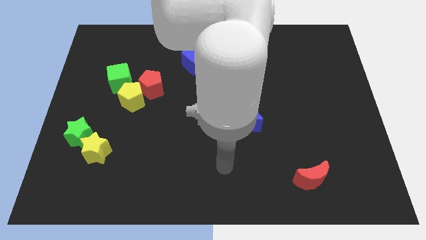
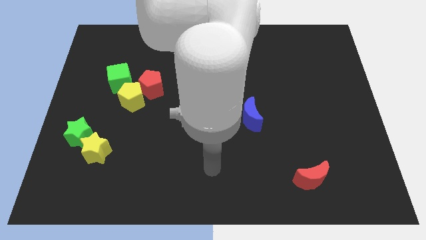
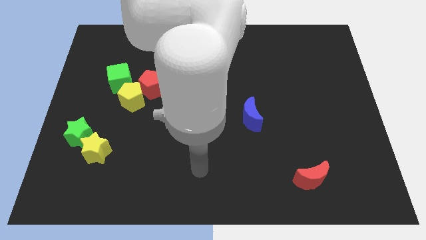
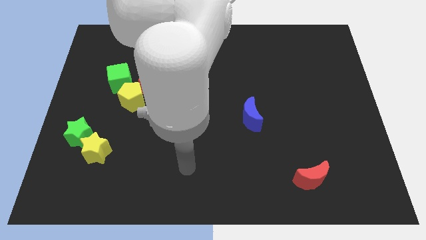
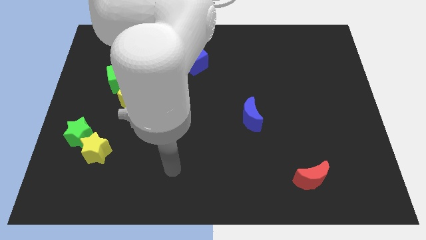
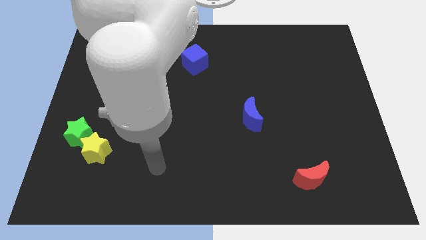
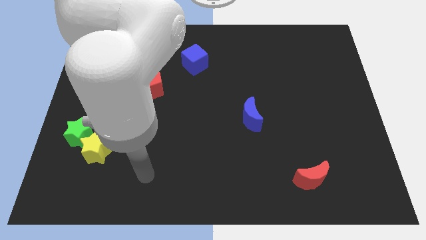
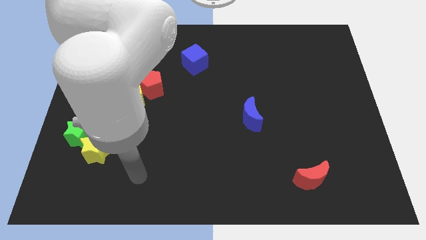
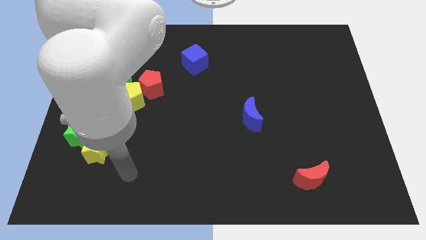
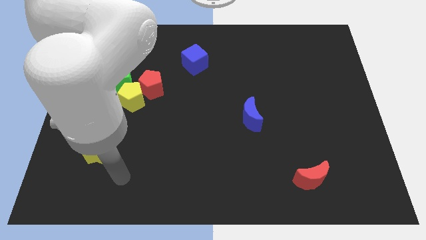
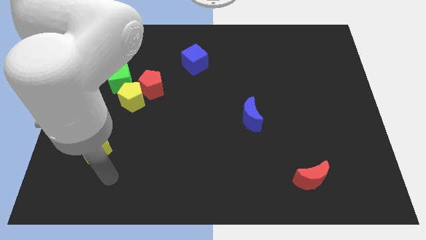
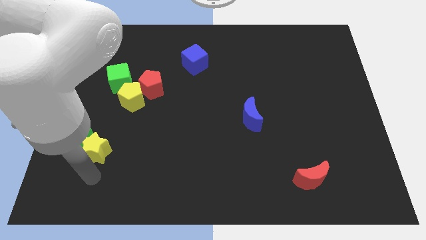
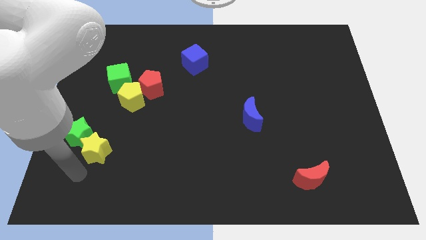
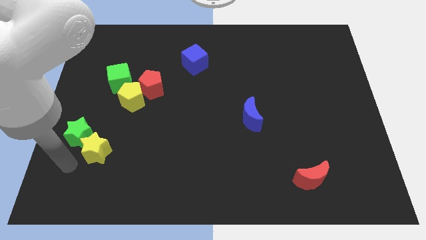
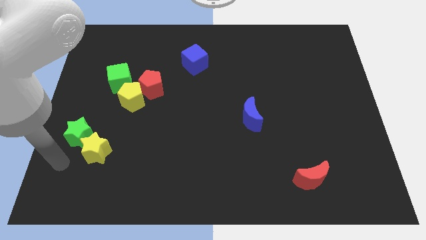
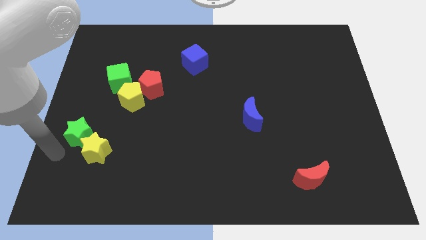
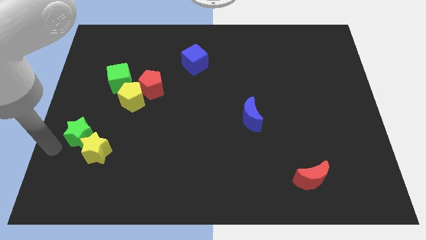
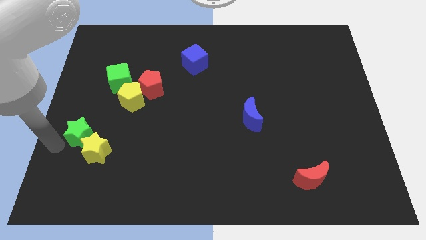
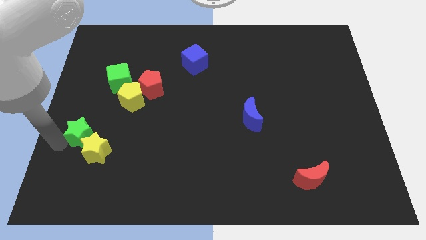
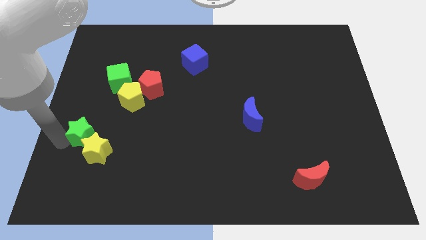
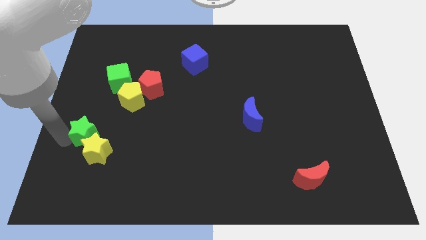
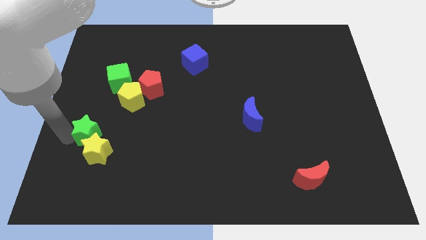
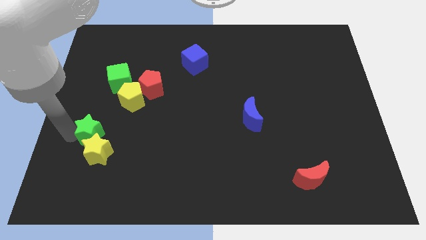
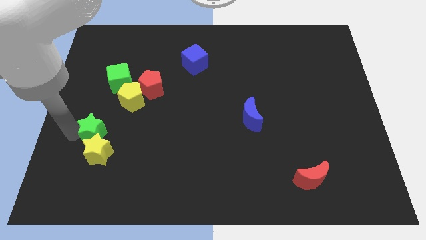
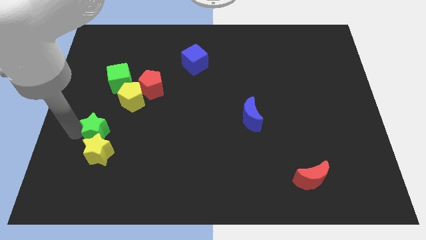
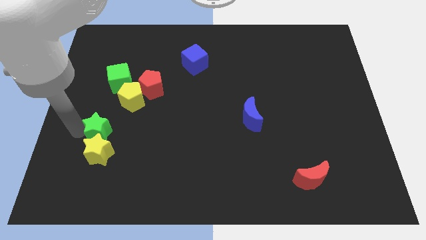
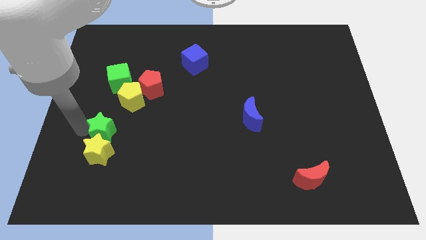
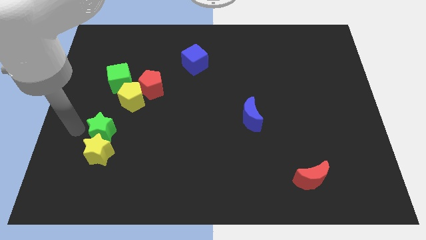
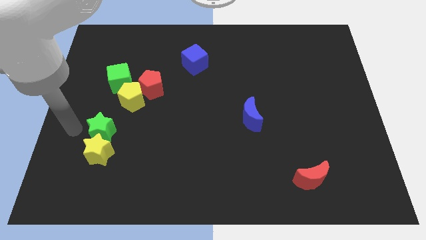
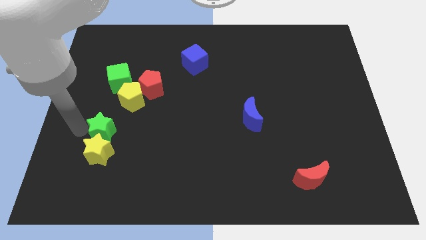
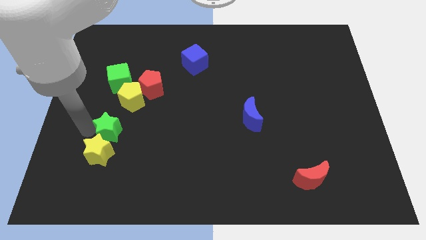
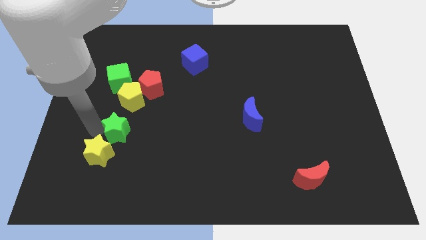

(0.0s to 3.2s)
move the green star a bit to the right

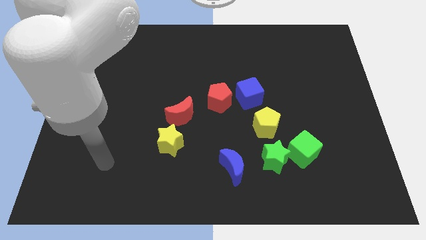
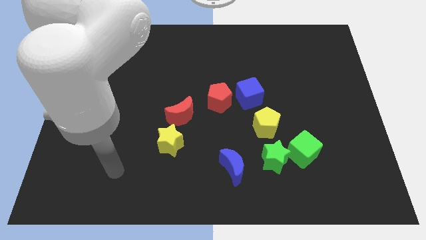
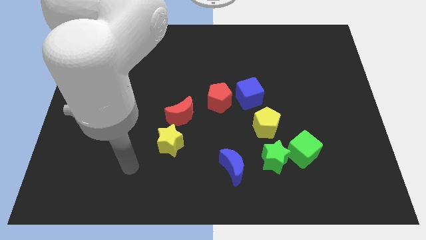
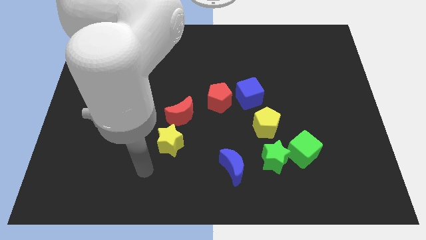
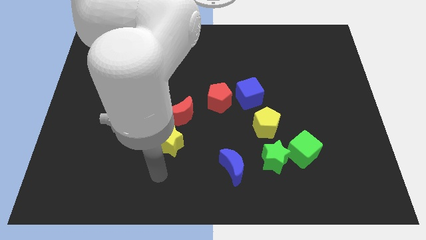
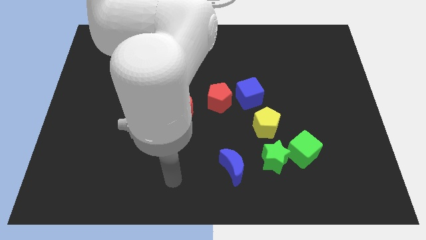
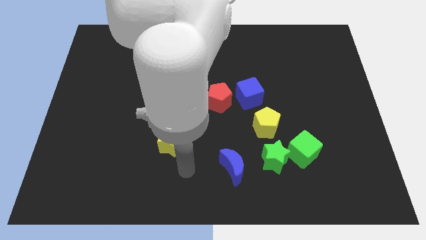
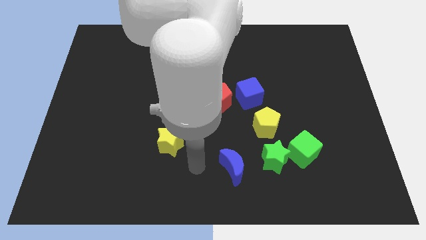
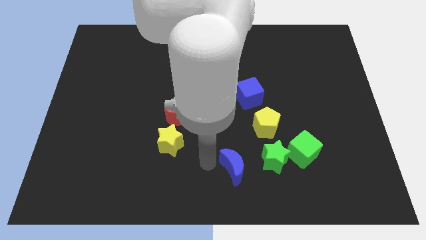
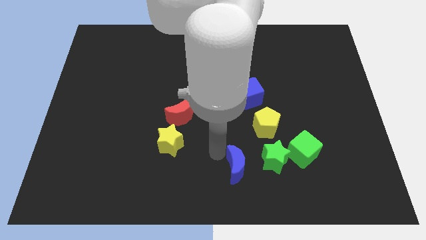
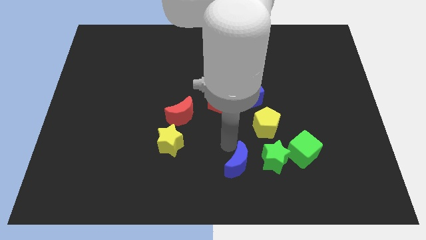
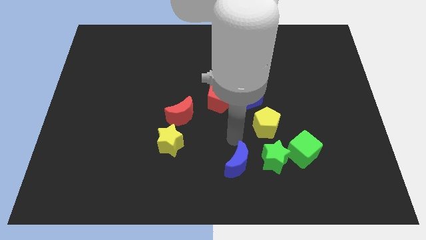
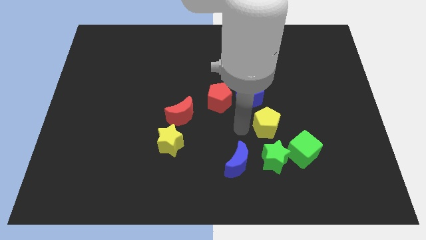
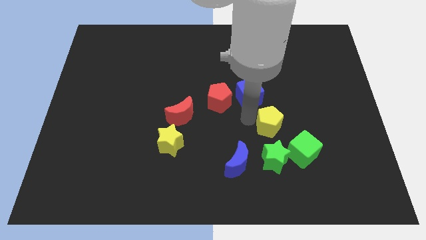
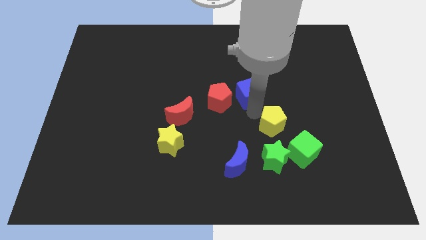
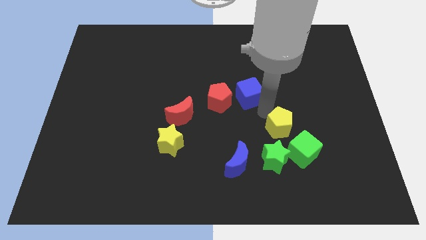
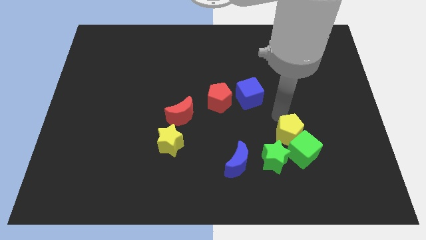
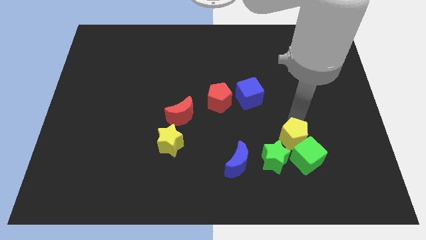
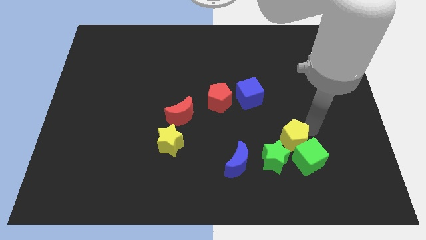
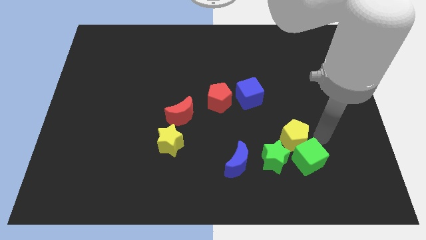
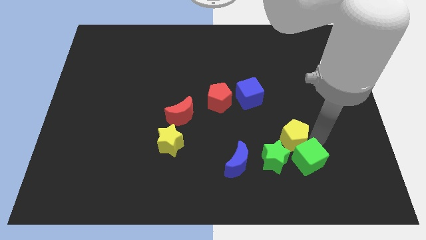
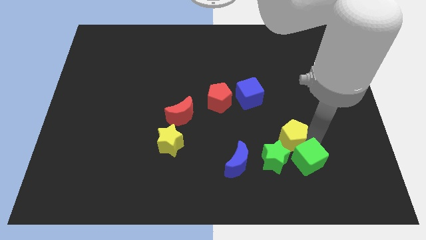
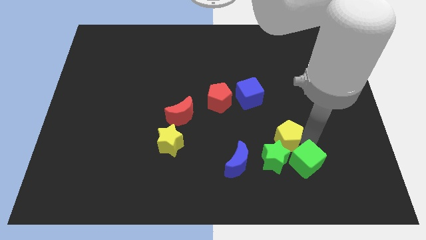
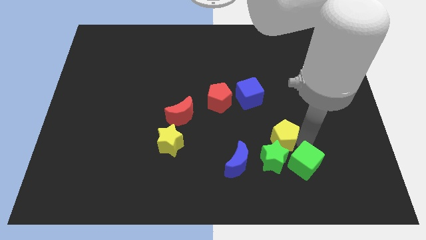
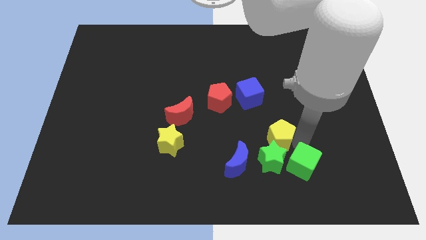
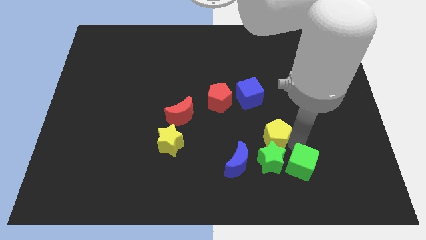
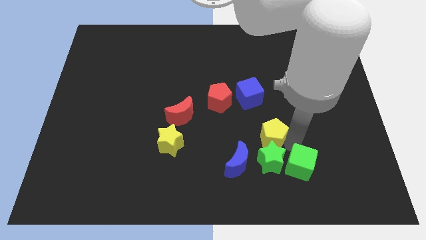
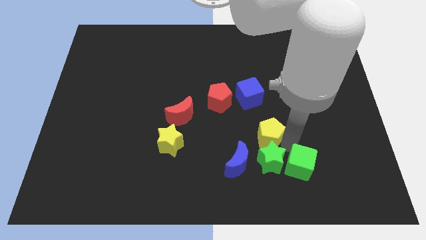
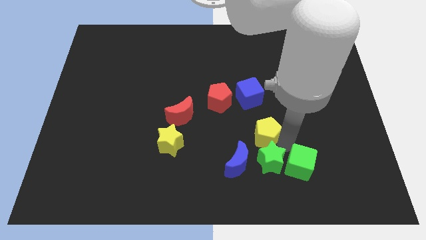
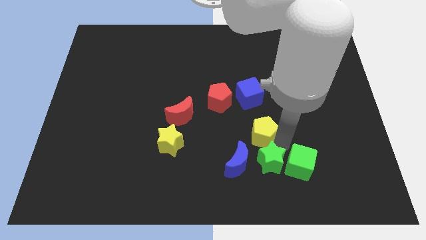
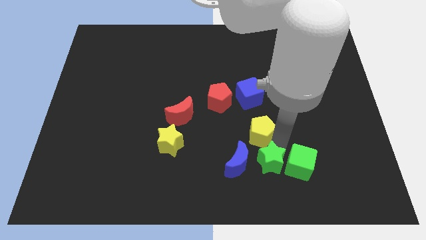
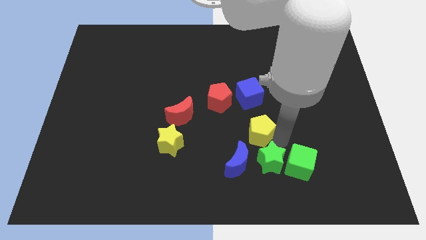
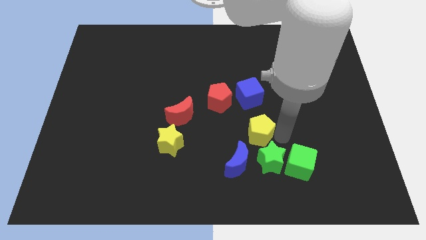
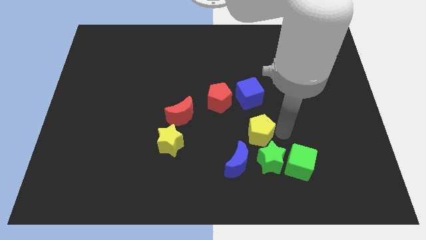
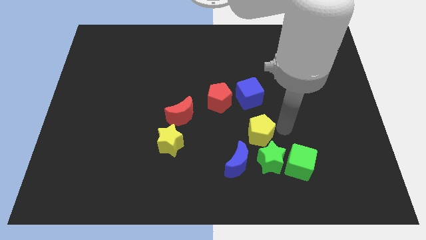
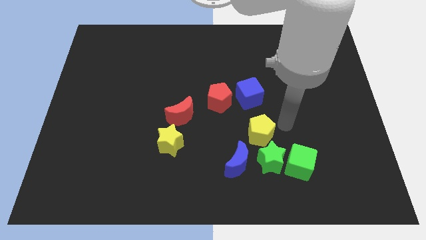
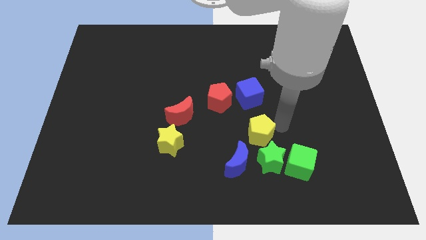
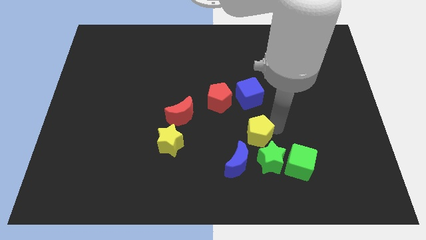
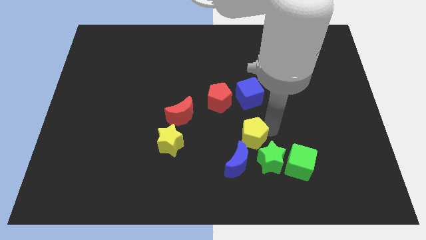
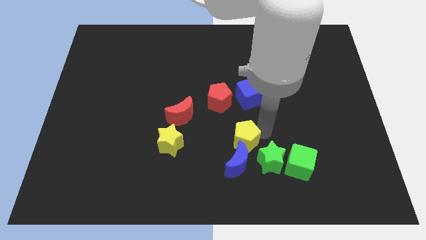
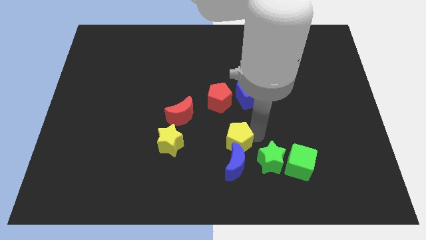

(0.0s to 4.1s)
move the yellow pentagon a bit downwards and then to the left

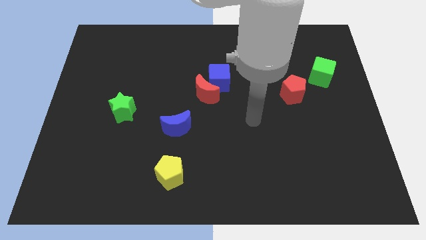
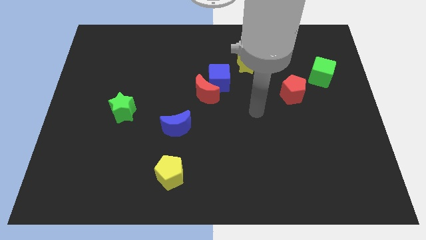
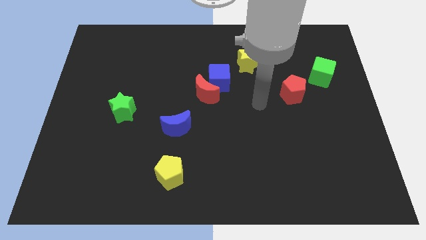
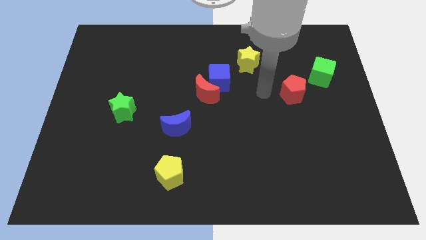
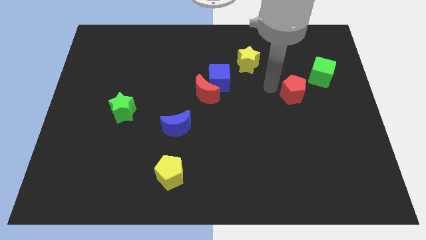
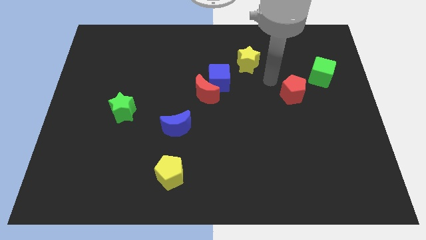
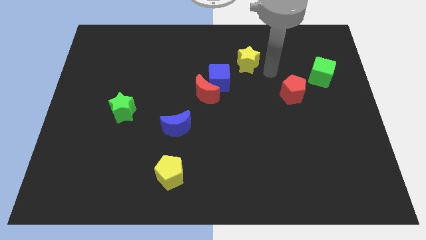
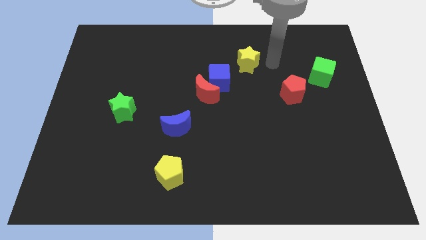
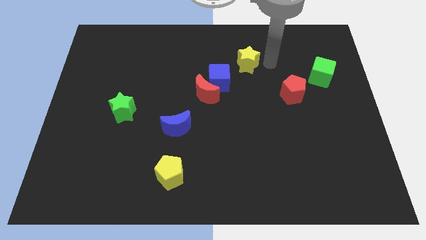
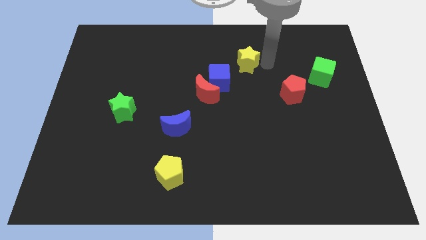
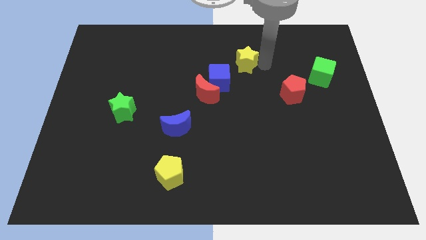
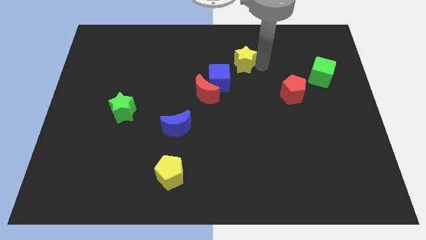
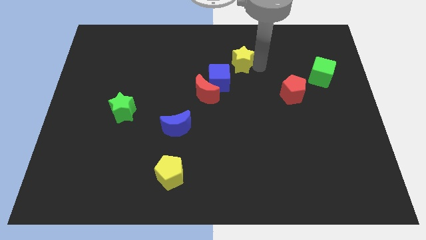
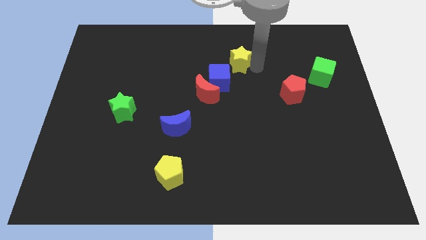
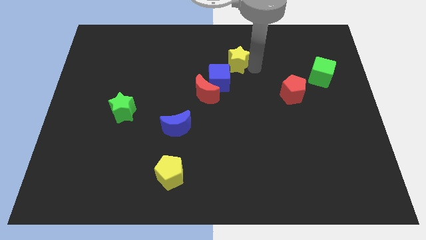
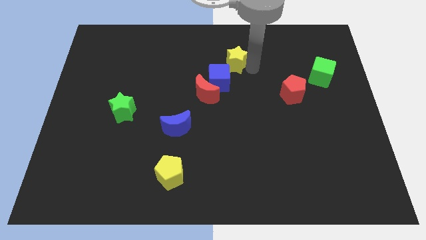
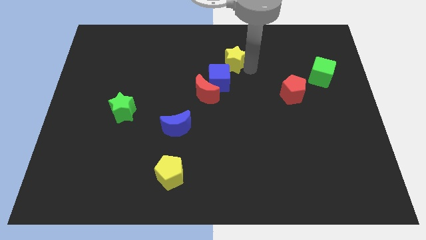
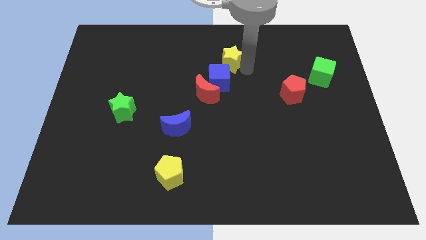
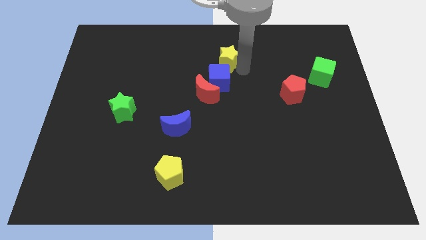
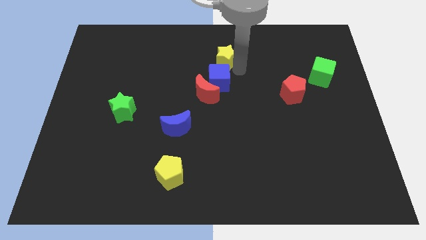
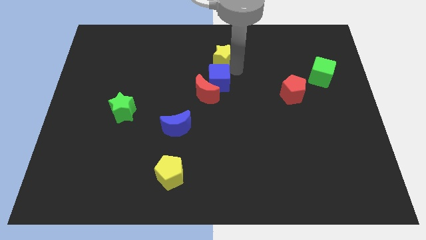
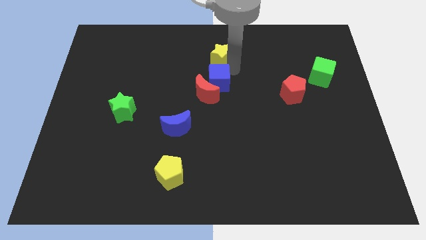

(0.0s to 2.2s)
slightly move the yellow star left
